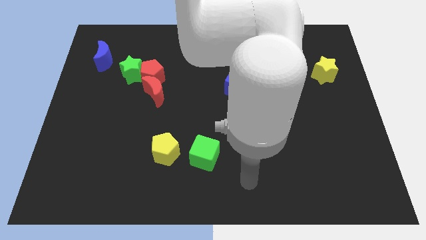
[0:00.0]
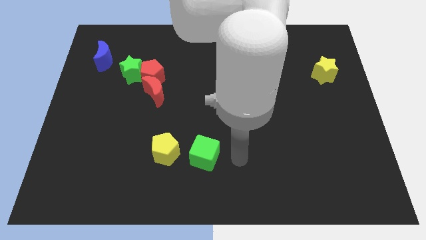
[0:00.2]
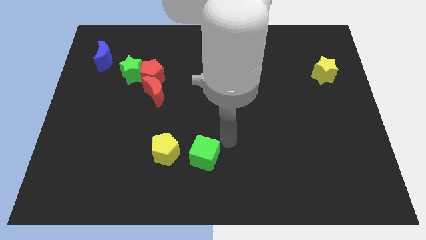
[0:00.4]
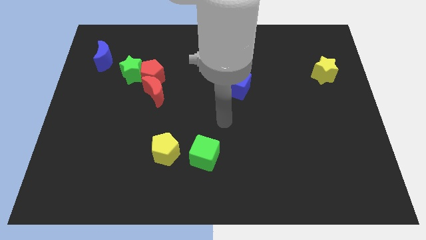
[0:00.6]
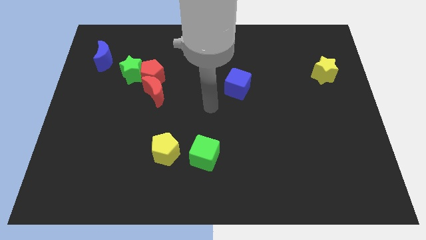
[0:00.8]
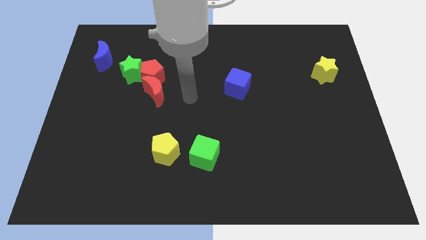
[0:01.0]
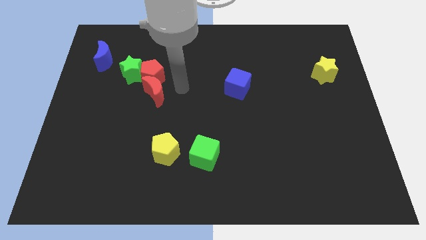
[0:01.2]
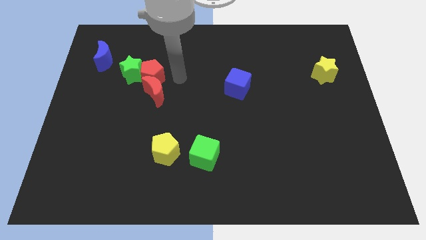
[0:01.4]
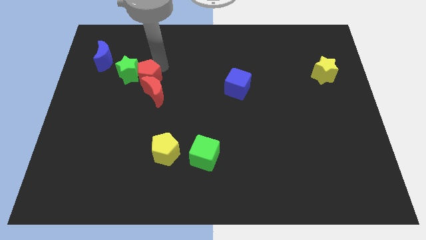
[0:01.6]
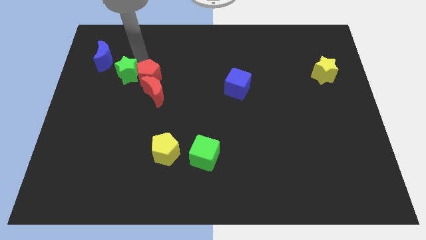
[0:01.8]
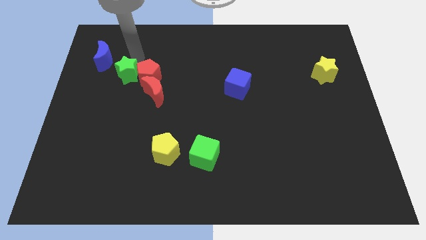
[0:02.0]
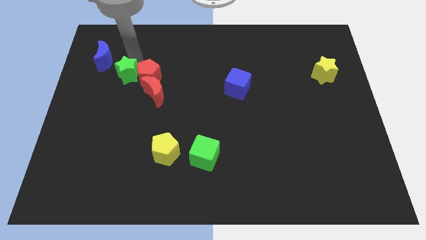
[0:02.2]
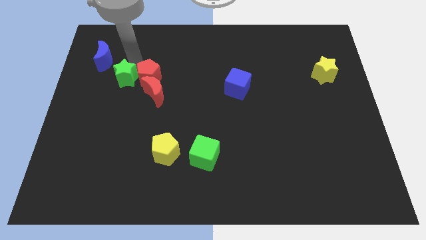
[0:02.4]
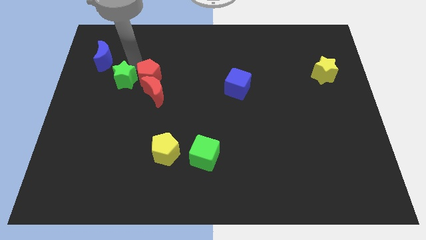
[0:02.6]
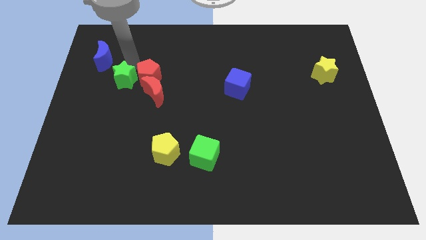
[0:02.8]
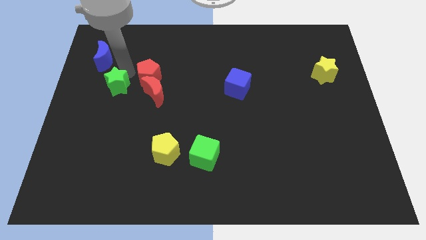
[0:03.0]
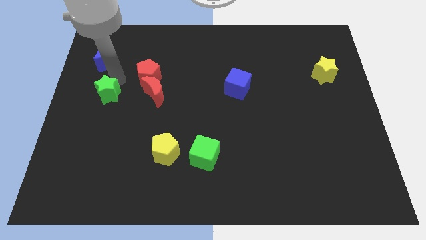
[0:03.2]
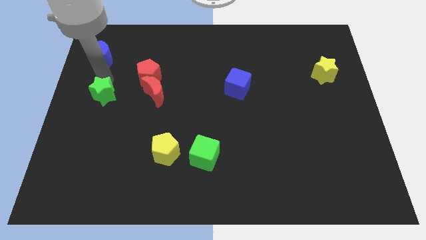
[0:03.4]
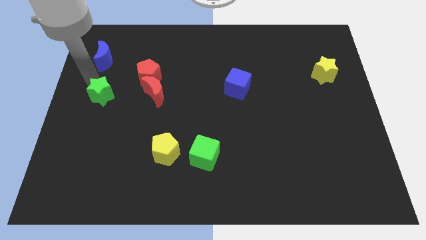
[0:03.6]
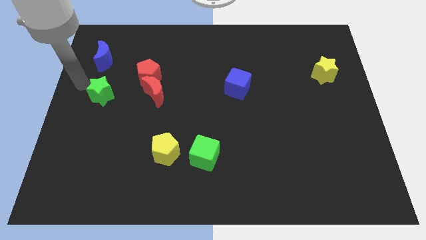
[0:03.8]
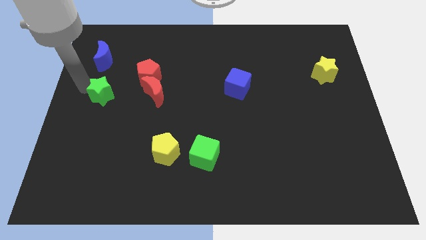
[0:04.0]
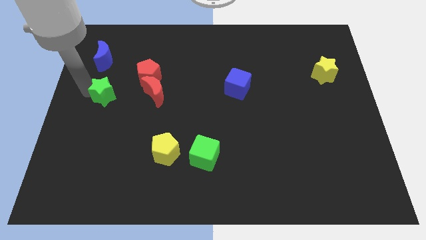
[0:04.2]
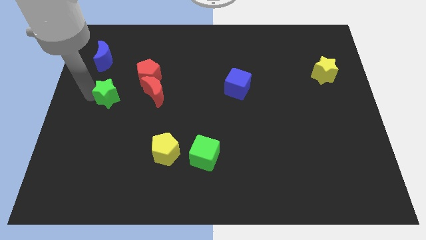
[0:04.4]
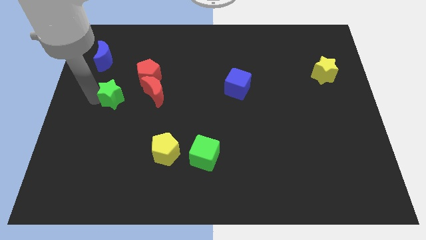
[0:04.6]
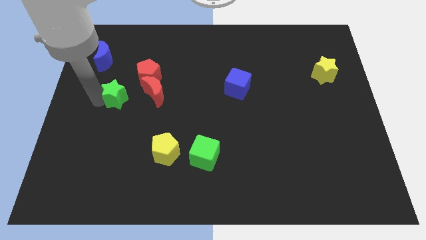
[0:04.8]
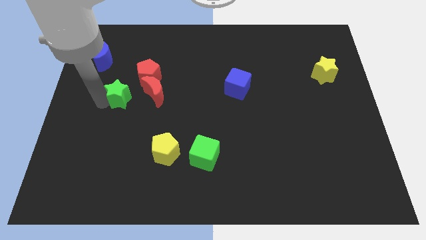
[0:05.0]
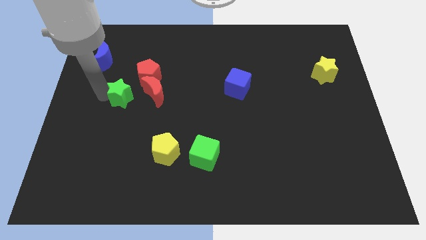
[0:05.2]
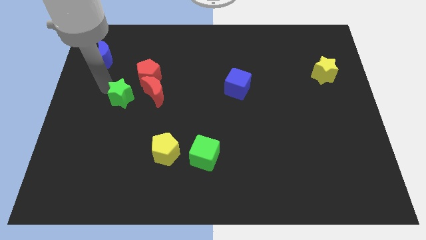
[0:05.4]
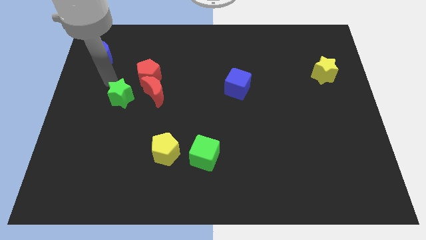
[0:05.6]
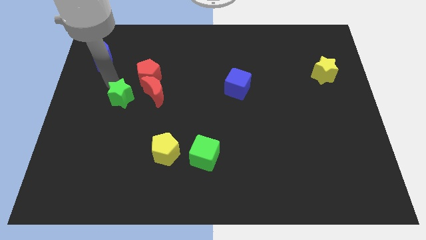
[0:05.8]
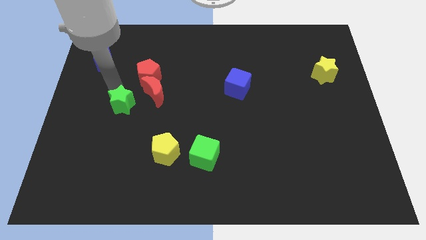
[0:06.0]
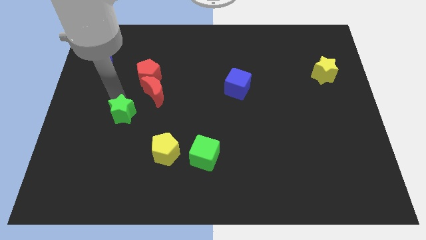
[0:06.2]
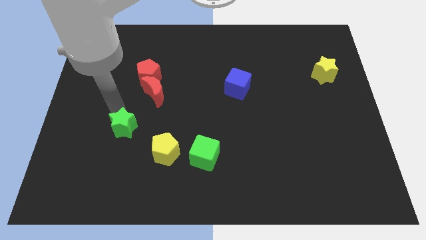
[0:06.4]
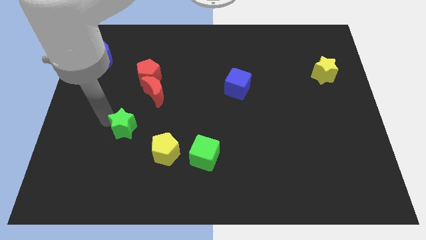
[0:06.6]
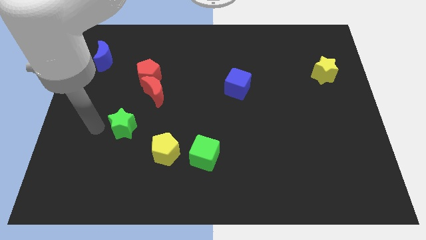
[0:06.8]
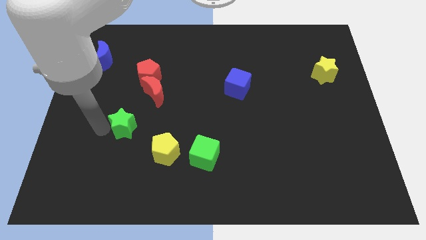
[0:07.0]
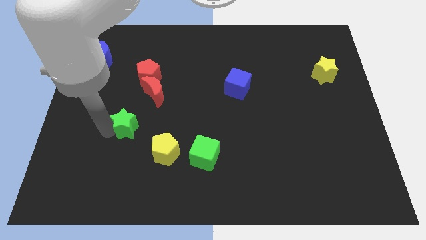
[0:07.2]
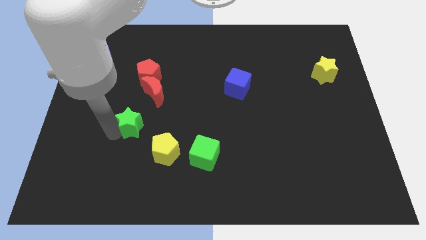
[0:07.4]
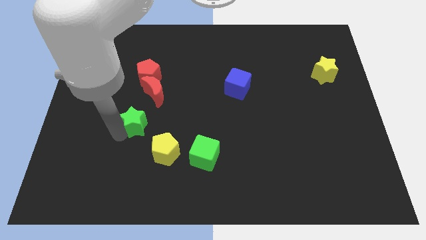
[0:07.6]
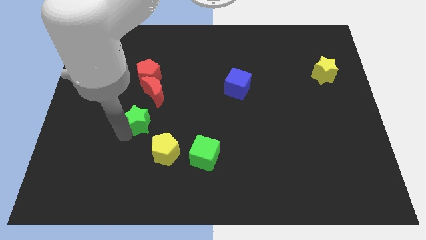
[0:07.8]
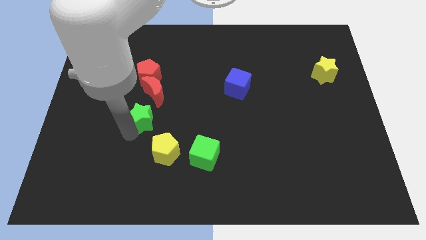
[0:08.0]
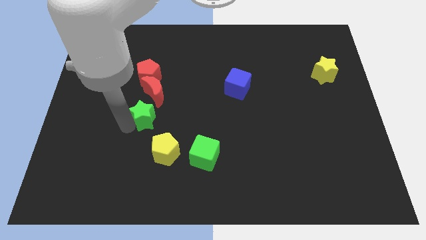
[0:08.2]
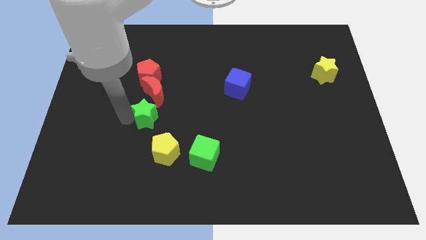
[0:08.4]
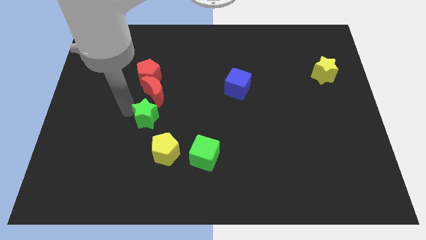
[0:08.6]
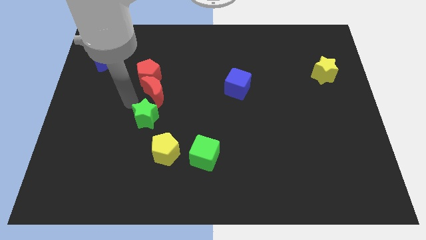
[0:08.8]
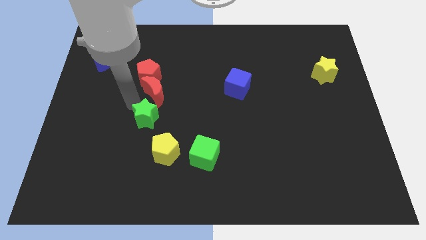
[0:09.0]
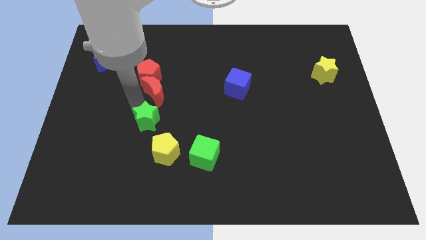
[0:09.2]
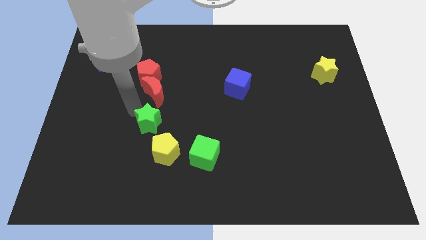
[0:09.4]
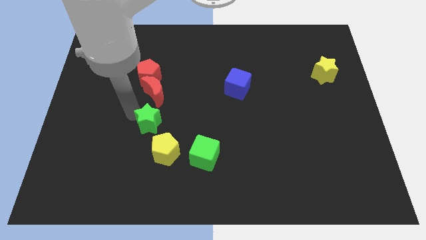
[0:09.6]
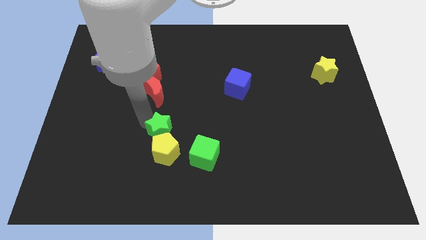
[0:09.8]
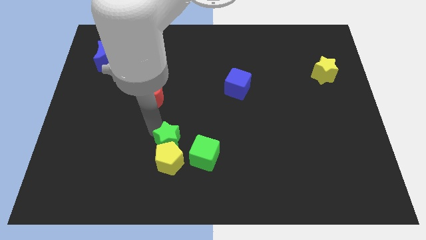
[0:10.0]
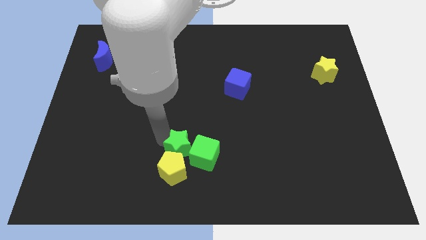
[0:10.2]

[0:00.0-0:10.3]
slide the green star towards the green cube

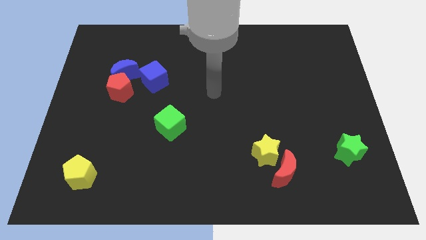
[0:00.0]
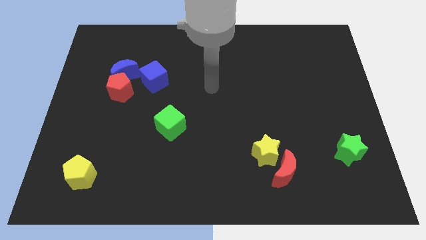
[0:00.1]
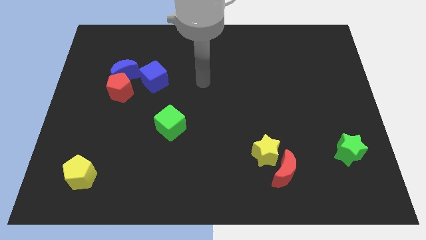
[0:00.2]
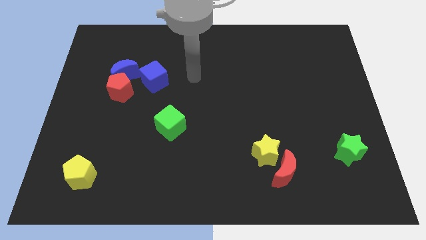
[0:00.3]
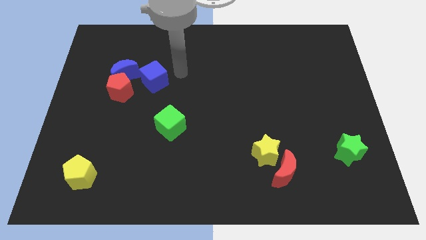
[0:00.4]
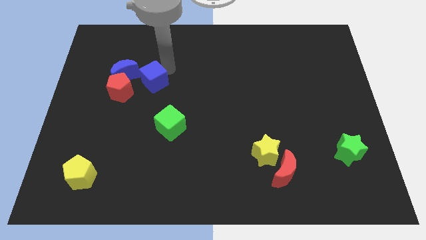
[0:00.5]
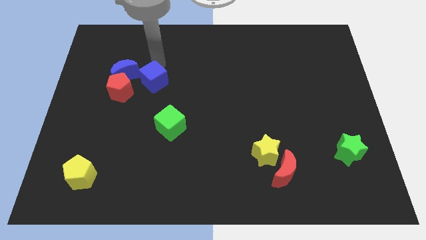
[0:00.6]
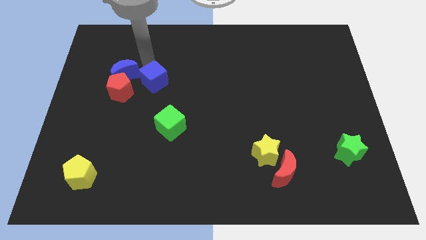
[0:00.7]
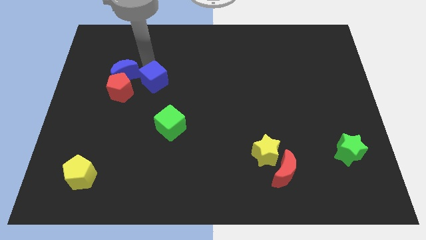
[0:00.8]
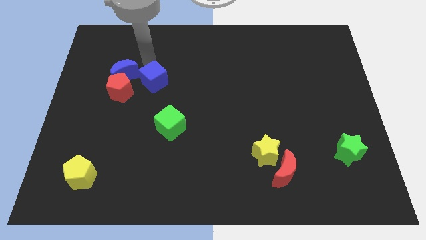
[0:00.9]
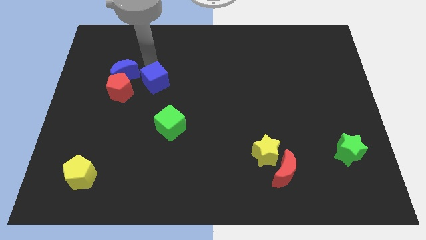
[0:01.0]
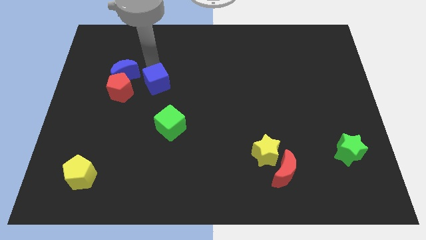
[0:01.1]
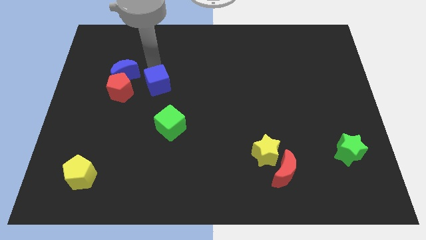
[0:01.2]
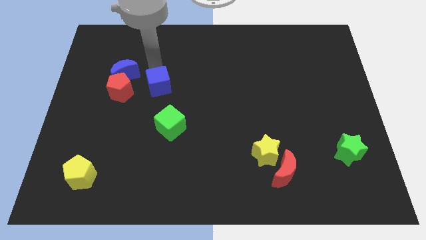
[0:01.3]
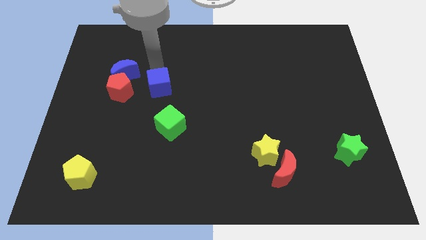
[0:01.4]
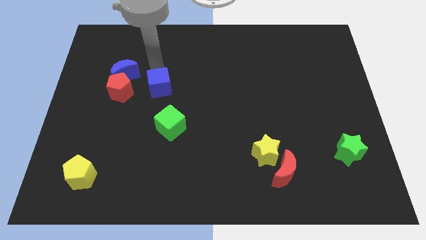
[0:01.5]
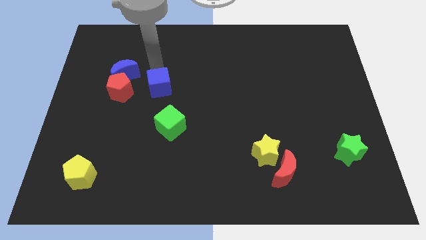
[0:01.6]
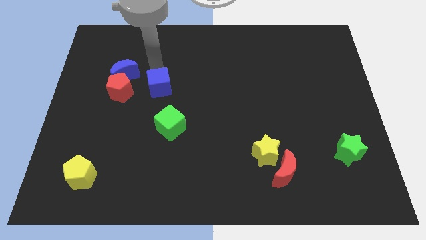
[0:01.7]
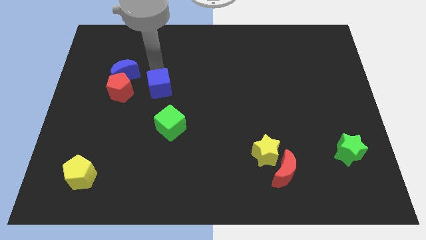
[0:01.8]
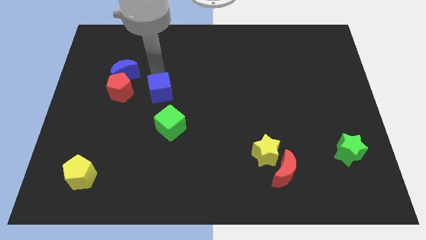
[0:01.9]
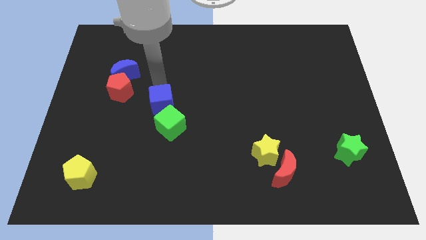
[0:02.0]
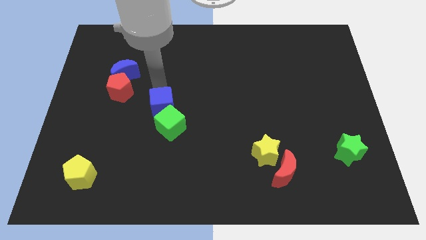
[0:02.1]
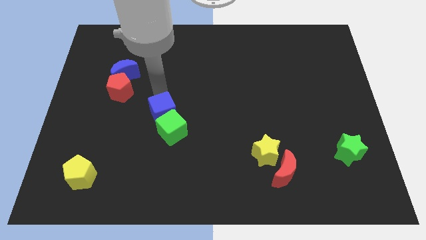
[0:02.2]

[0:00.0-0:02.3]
slide the blue cube next to the green cube
